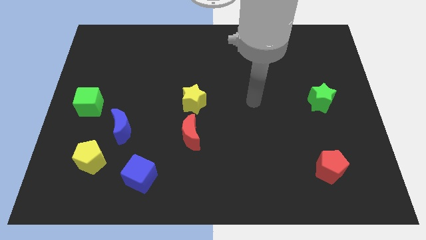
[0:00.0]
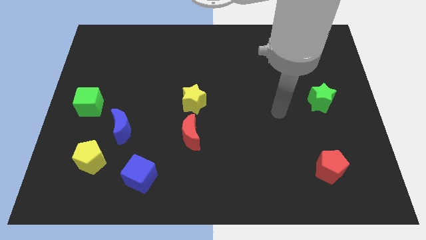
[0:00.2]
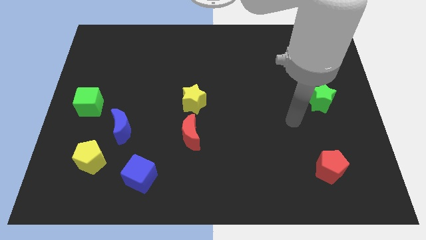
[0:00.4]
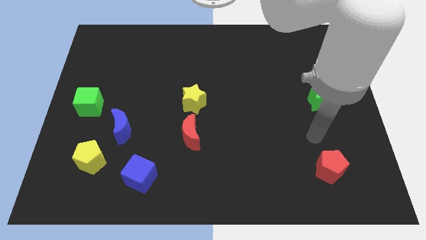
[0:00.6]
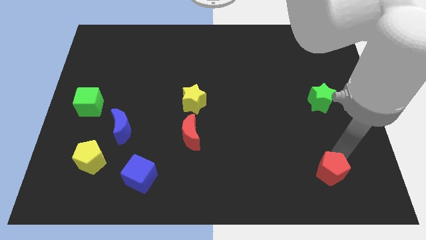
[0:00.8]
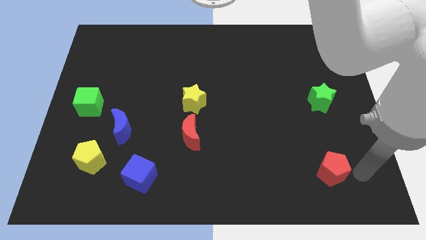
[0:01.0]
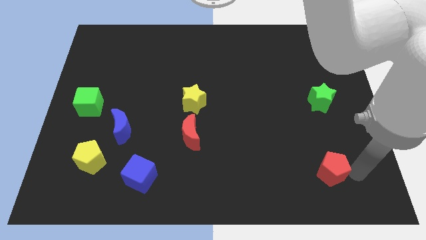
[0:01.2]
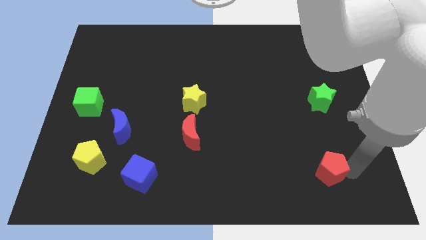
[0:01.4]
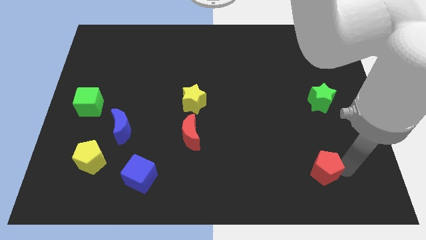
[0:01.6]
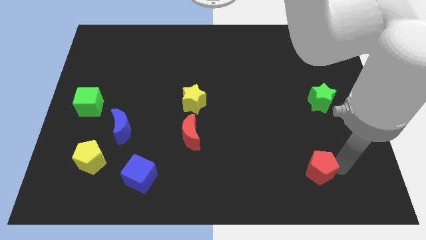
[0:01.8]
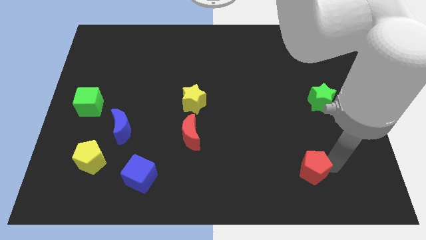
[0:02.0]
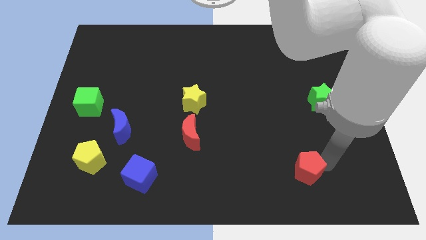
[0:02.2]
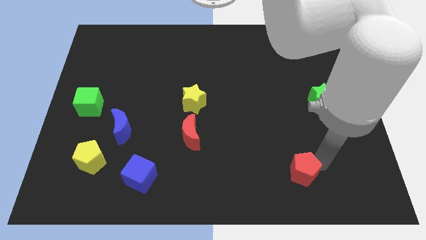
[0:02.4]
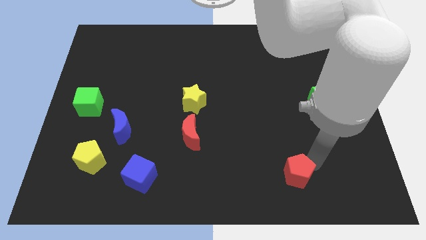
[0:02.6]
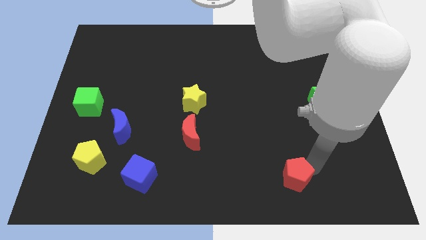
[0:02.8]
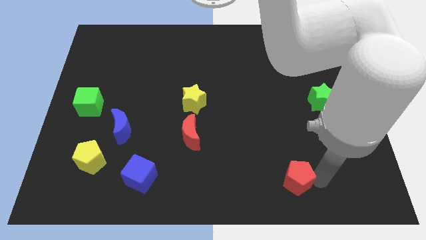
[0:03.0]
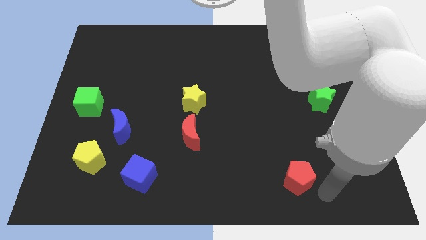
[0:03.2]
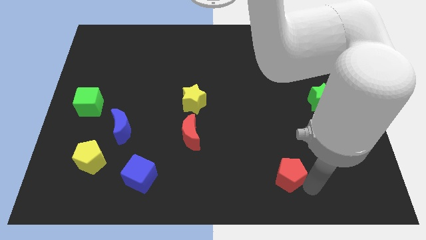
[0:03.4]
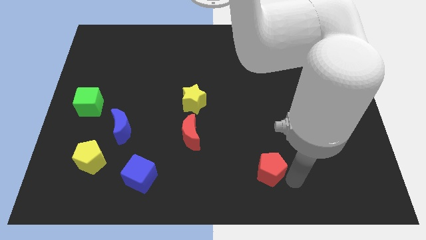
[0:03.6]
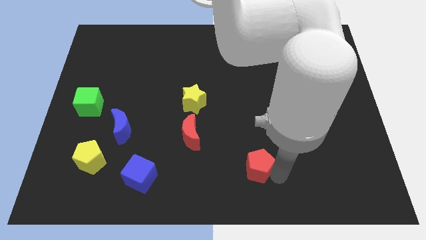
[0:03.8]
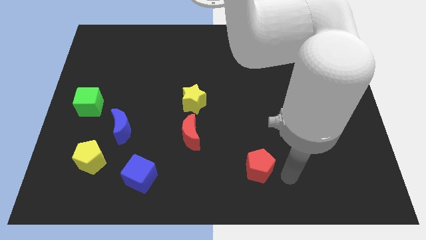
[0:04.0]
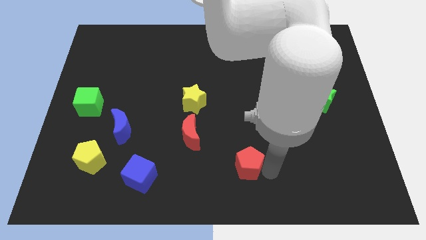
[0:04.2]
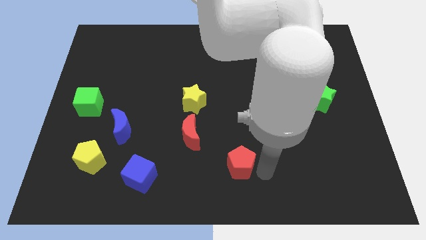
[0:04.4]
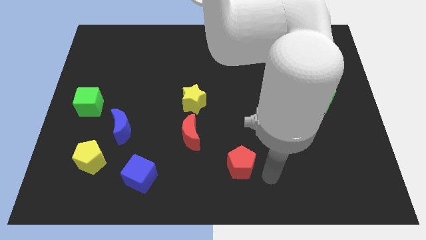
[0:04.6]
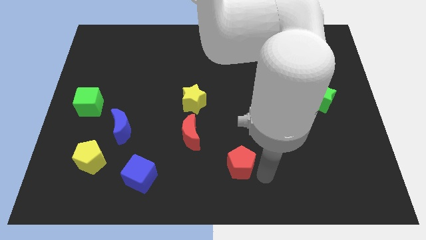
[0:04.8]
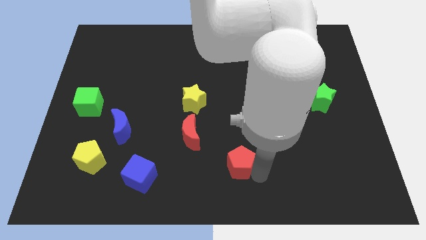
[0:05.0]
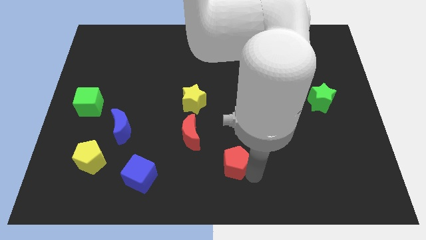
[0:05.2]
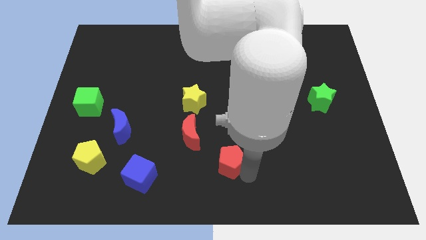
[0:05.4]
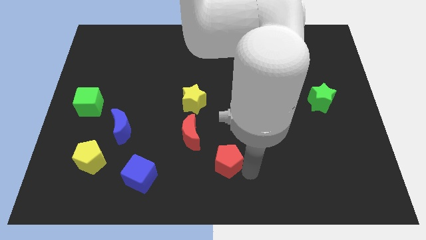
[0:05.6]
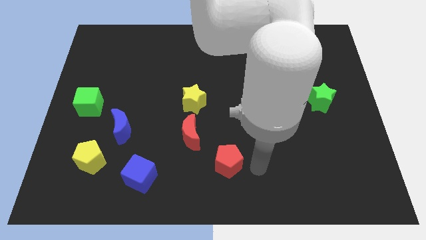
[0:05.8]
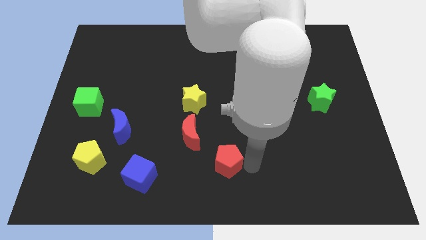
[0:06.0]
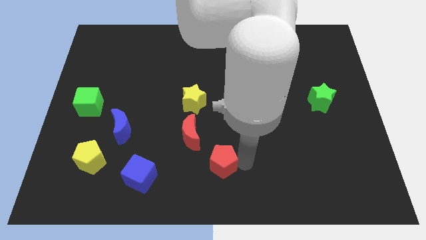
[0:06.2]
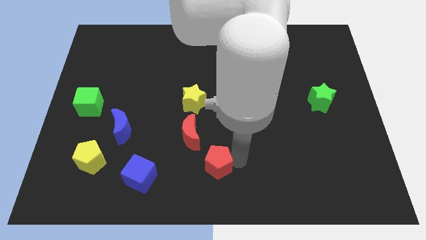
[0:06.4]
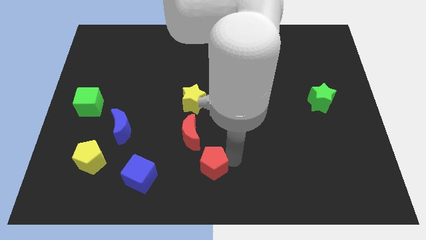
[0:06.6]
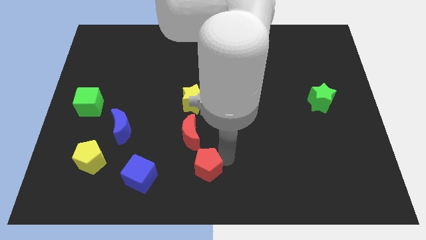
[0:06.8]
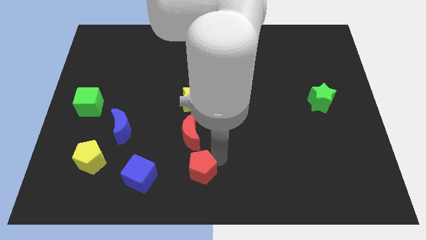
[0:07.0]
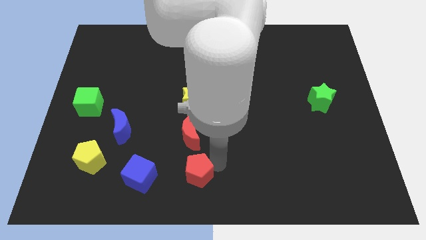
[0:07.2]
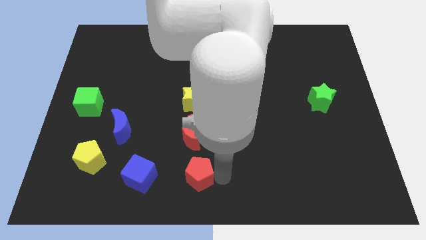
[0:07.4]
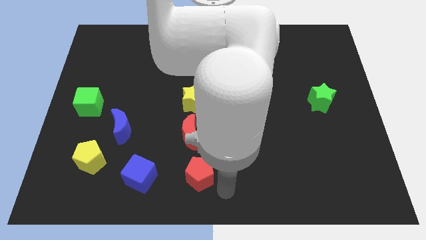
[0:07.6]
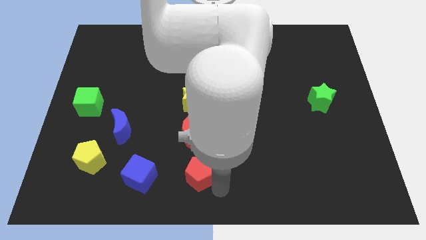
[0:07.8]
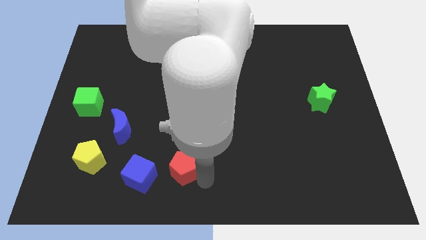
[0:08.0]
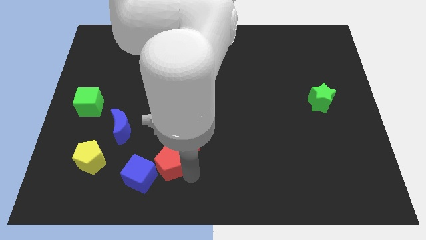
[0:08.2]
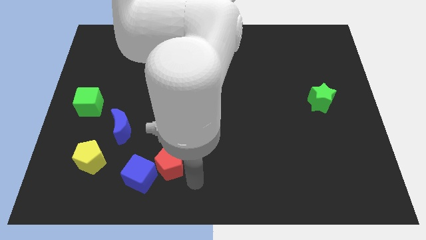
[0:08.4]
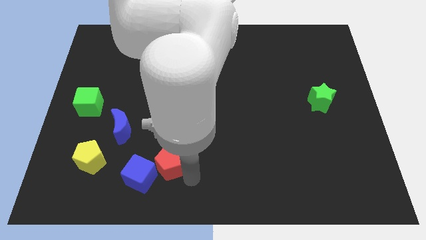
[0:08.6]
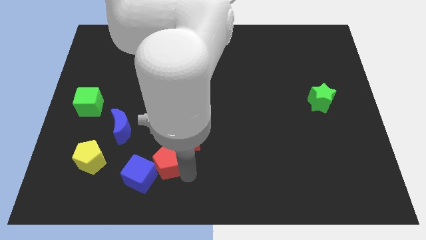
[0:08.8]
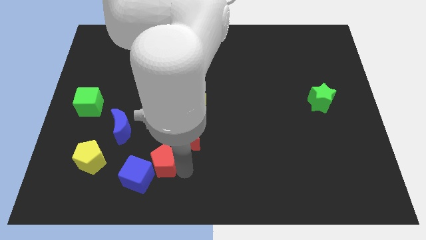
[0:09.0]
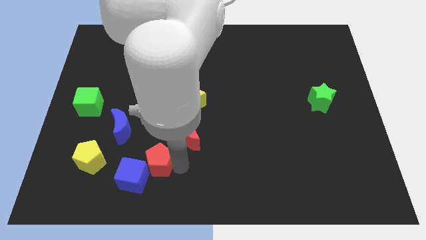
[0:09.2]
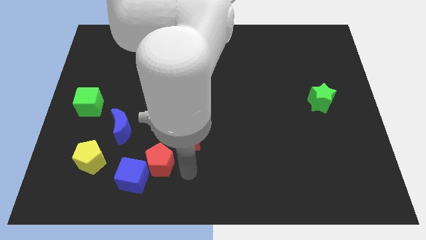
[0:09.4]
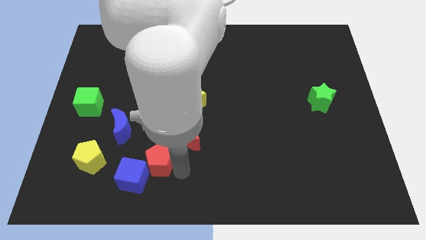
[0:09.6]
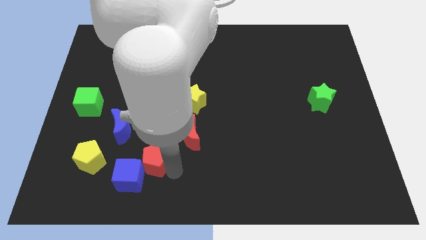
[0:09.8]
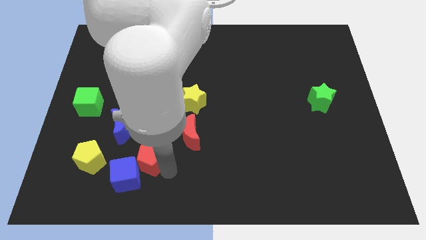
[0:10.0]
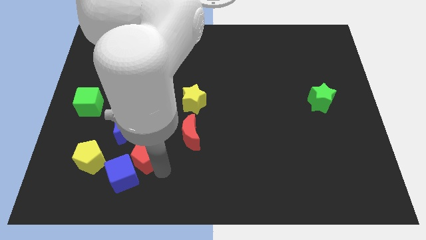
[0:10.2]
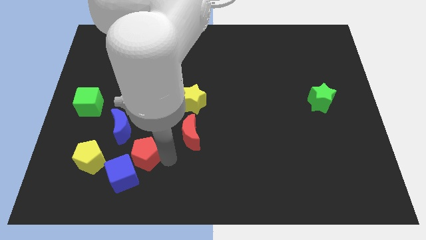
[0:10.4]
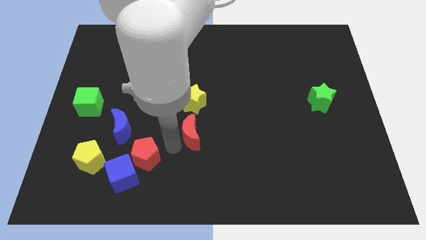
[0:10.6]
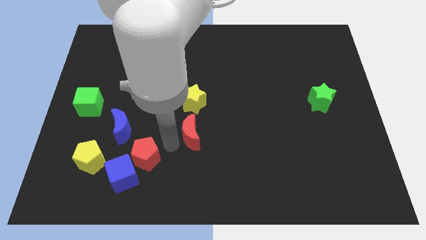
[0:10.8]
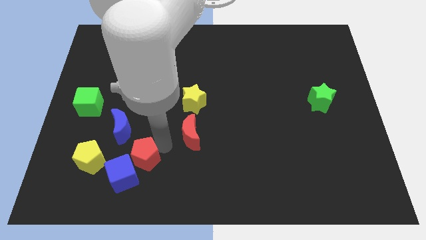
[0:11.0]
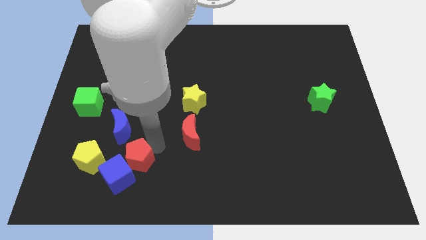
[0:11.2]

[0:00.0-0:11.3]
slide the red pentagon to the bottom of the blue moon

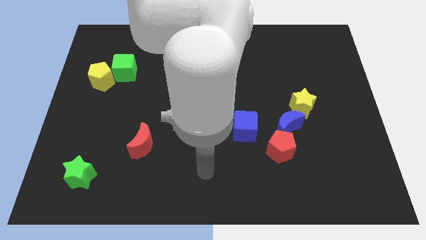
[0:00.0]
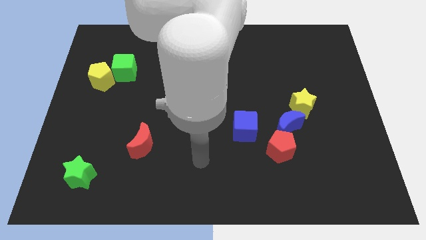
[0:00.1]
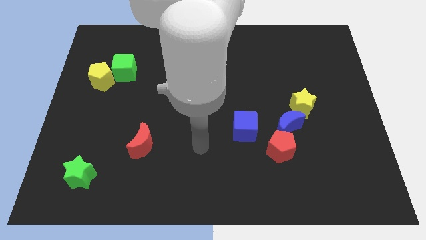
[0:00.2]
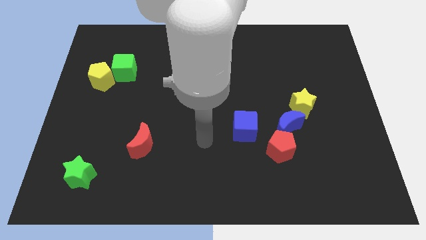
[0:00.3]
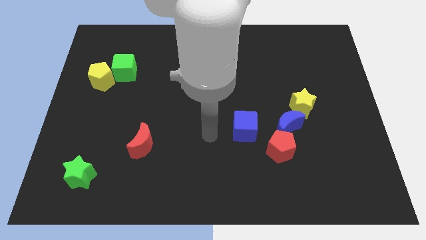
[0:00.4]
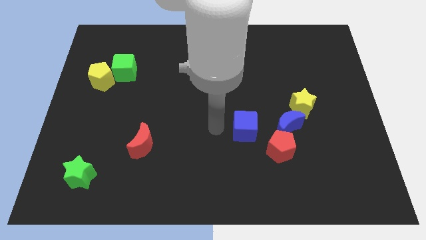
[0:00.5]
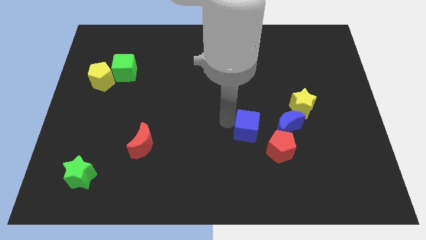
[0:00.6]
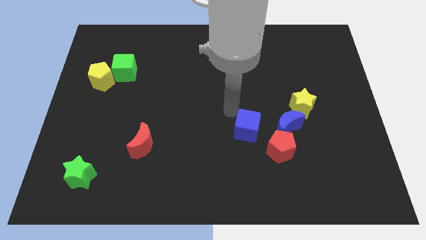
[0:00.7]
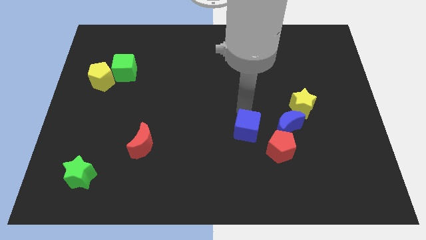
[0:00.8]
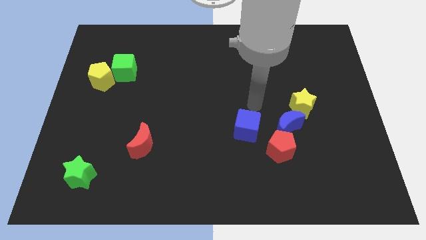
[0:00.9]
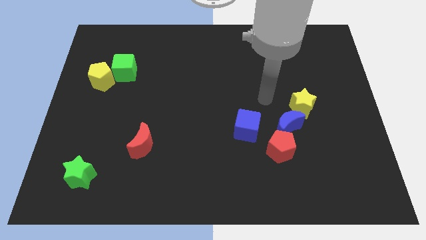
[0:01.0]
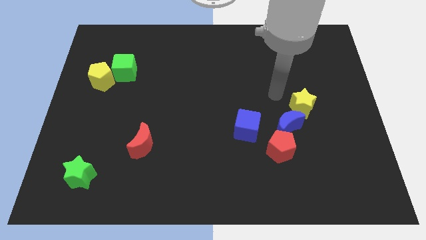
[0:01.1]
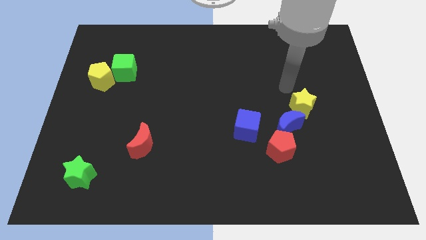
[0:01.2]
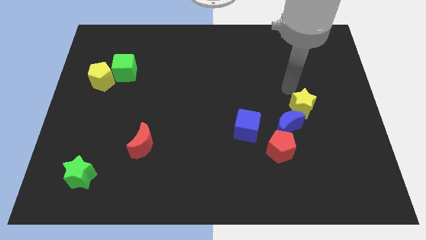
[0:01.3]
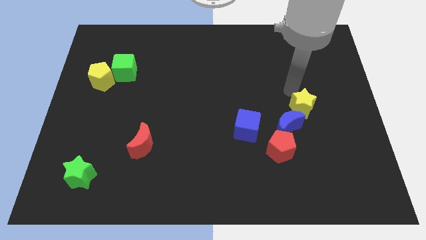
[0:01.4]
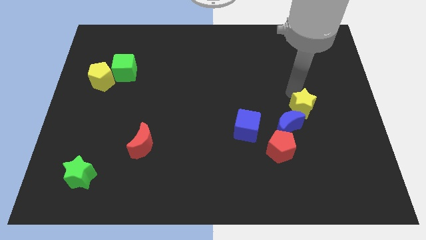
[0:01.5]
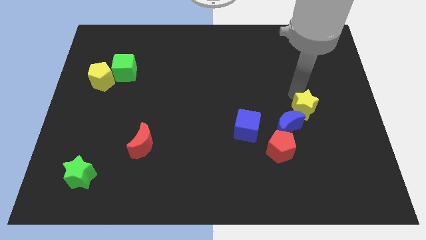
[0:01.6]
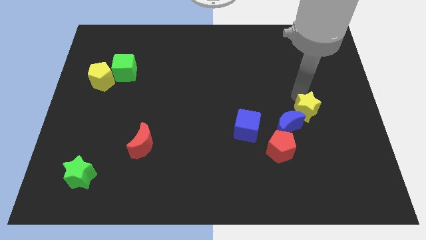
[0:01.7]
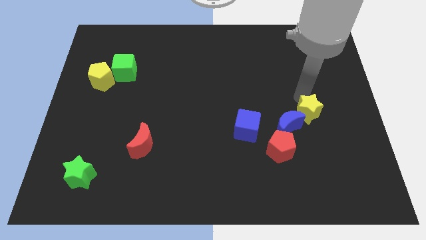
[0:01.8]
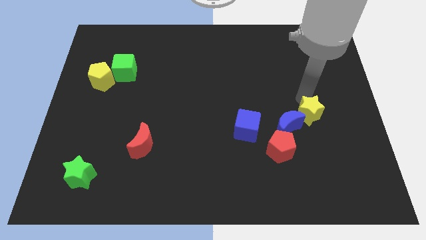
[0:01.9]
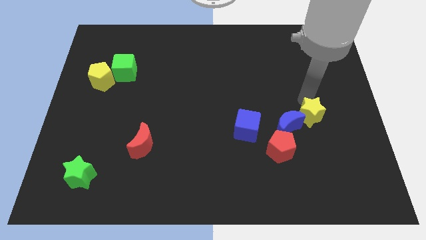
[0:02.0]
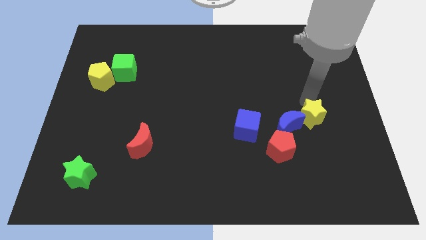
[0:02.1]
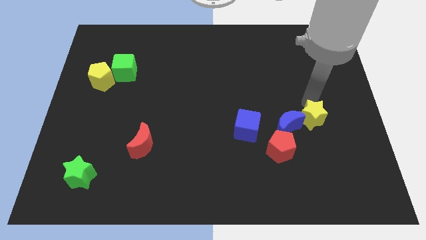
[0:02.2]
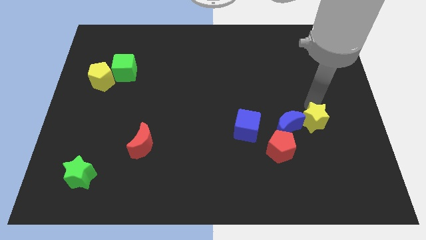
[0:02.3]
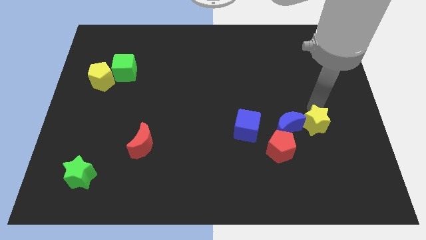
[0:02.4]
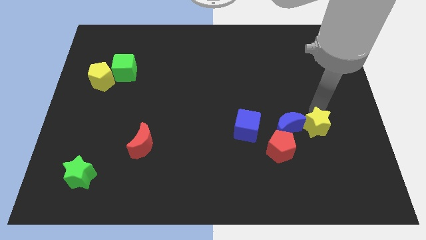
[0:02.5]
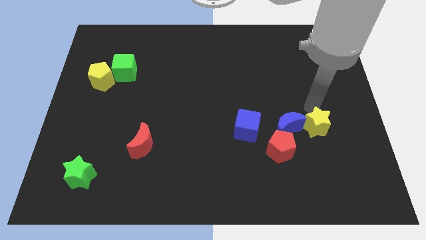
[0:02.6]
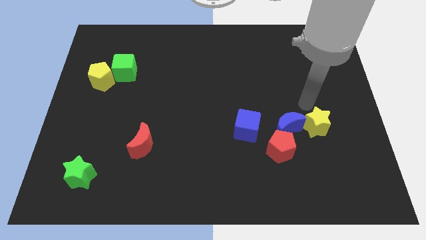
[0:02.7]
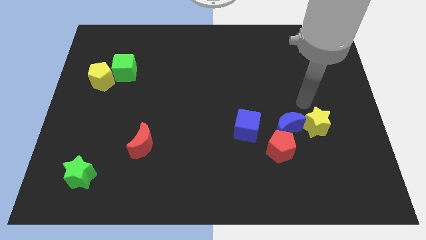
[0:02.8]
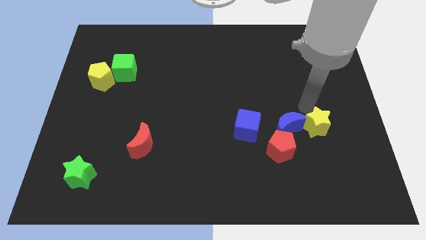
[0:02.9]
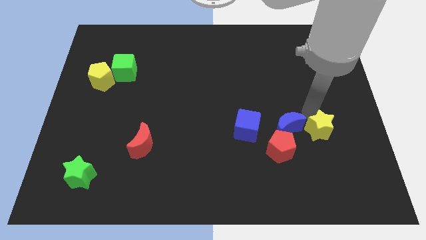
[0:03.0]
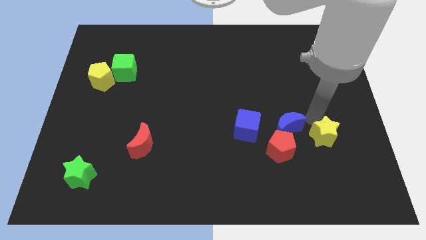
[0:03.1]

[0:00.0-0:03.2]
move the yellow star to the right of the red pentagon
